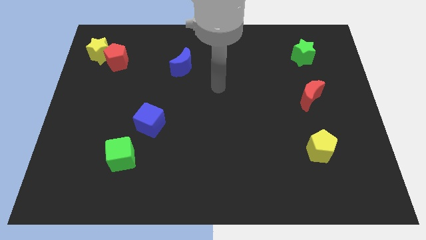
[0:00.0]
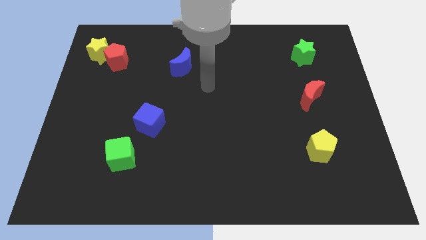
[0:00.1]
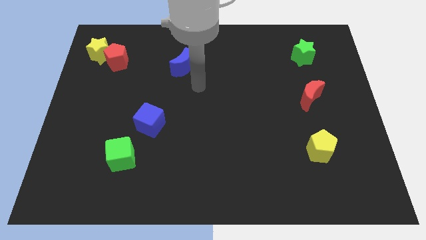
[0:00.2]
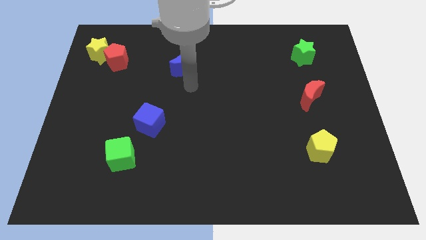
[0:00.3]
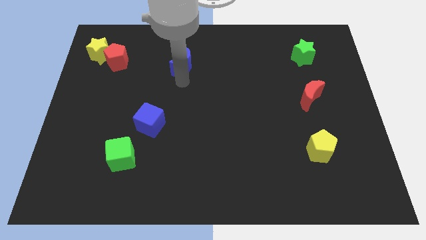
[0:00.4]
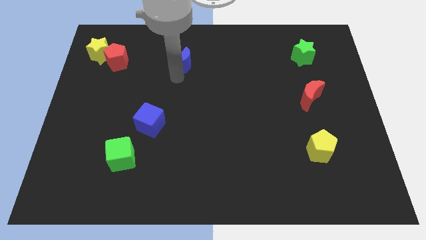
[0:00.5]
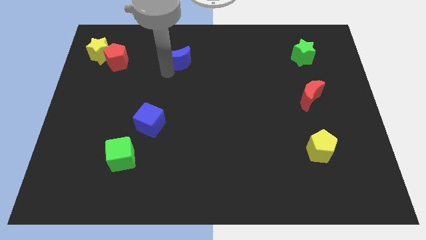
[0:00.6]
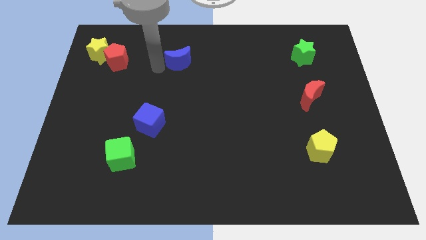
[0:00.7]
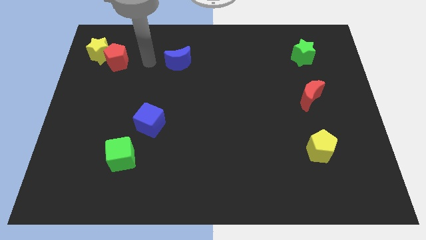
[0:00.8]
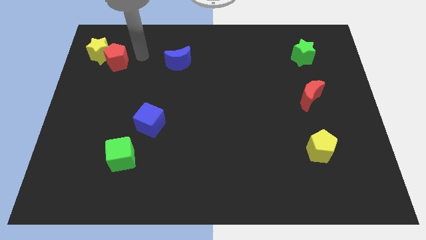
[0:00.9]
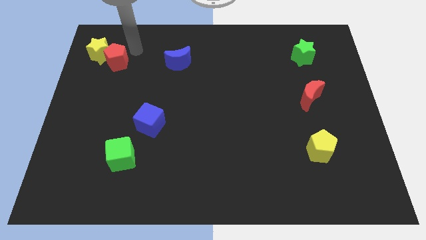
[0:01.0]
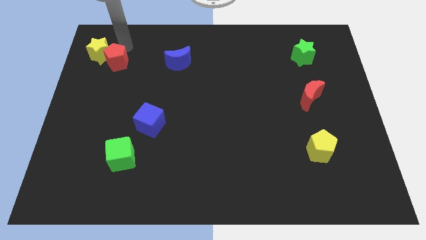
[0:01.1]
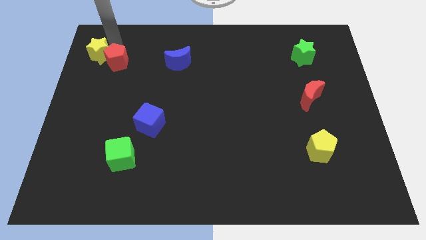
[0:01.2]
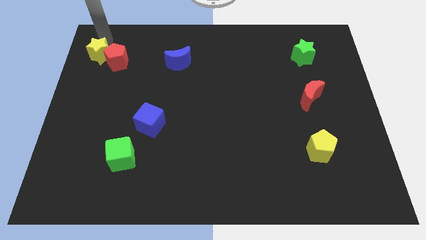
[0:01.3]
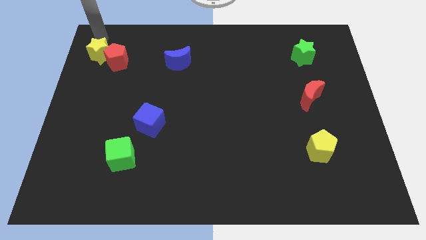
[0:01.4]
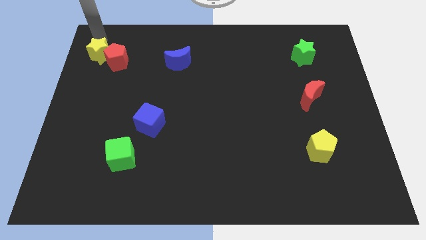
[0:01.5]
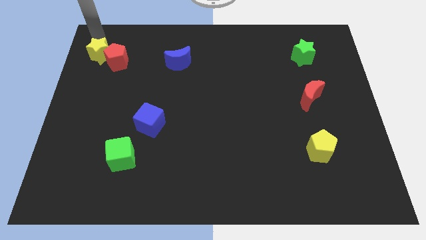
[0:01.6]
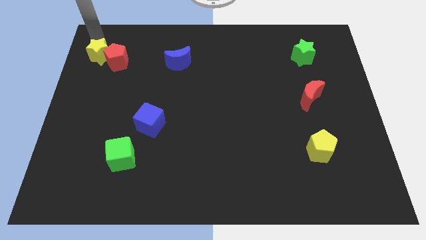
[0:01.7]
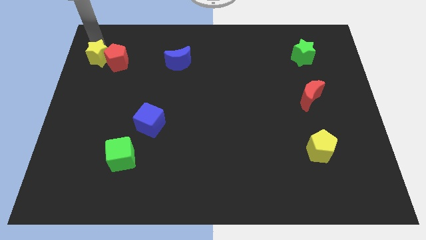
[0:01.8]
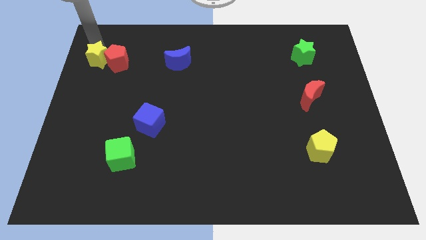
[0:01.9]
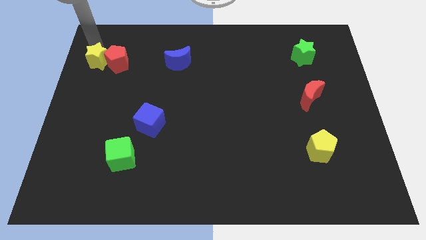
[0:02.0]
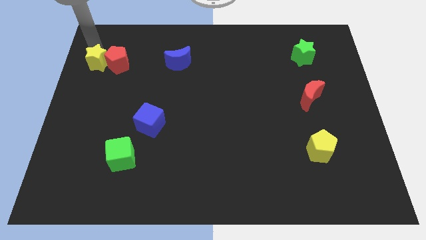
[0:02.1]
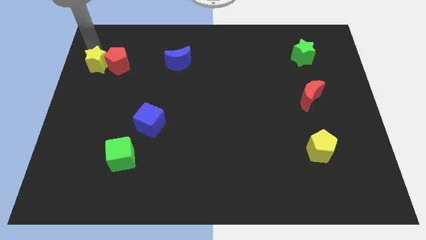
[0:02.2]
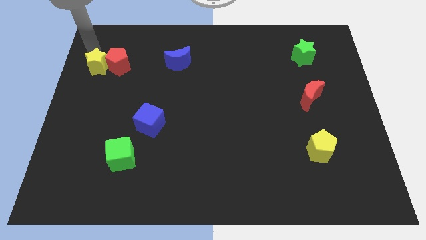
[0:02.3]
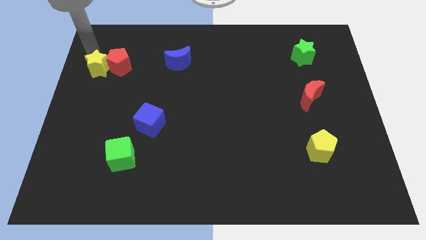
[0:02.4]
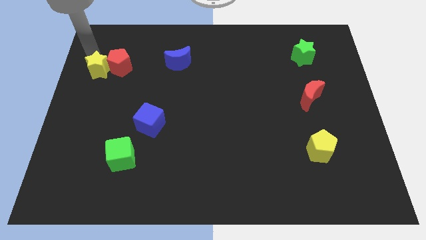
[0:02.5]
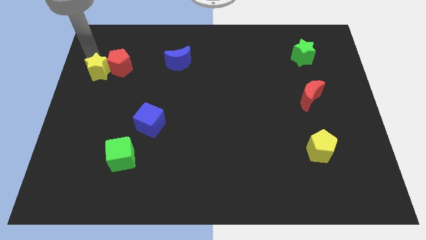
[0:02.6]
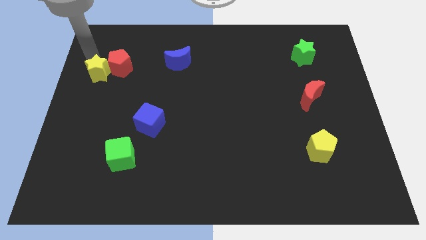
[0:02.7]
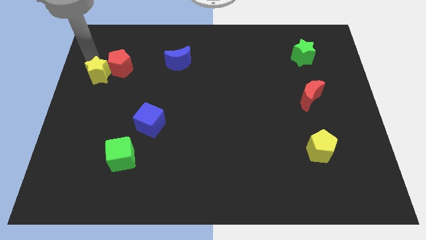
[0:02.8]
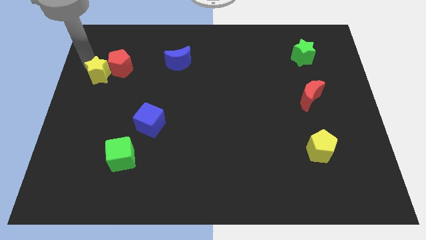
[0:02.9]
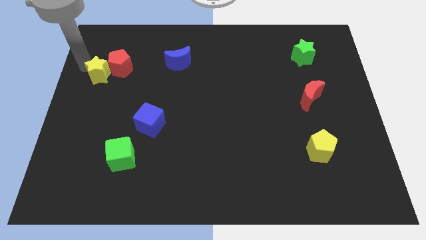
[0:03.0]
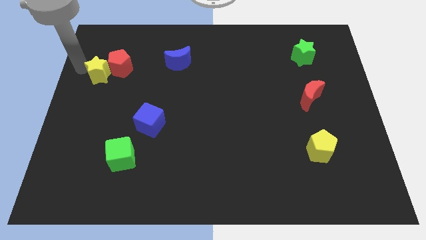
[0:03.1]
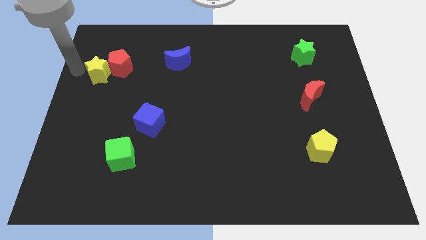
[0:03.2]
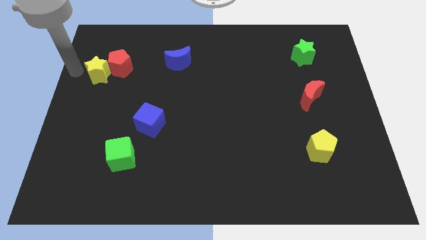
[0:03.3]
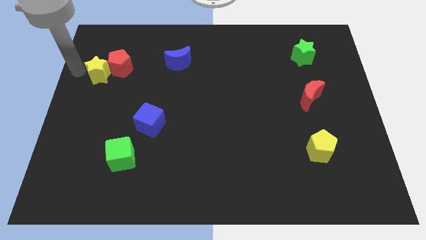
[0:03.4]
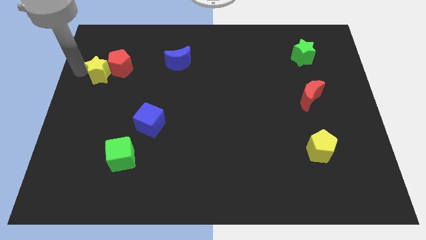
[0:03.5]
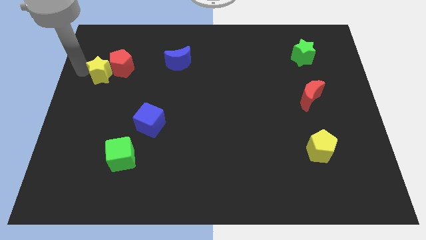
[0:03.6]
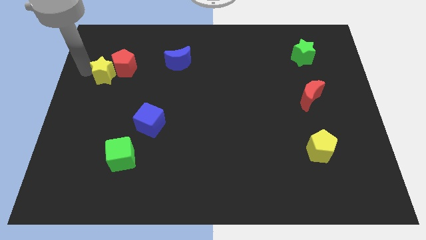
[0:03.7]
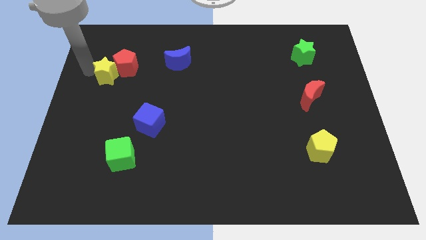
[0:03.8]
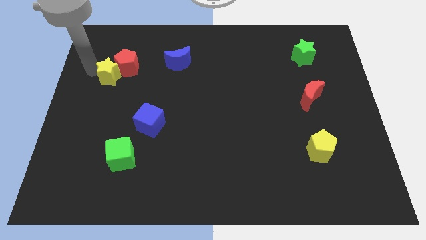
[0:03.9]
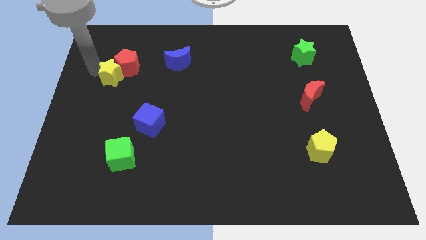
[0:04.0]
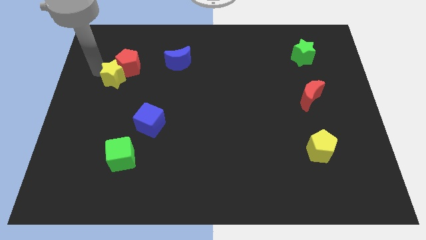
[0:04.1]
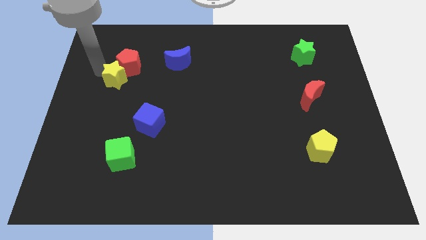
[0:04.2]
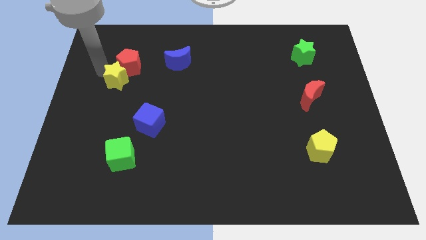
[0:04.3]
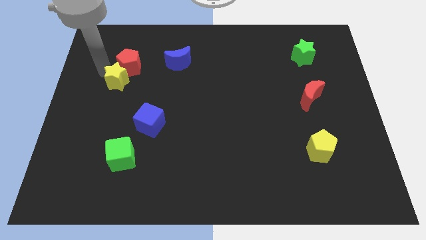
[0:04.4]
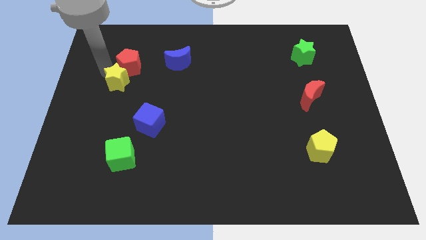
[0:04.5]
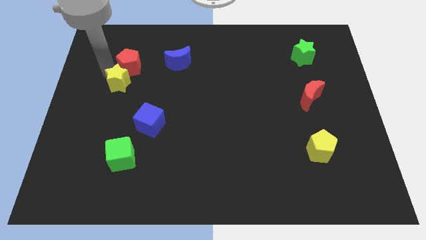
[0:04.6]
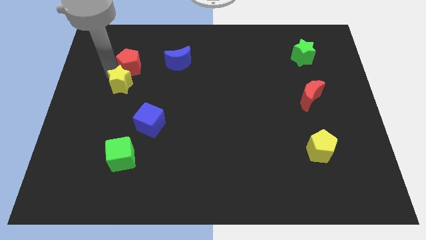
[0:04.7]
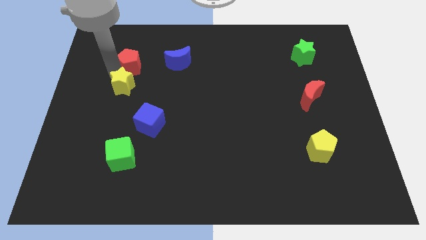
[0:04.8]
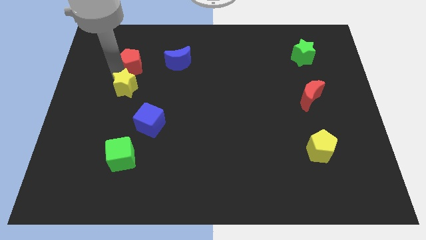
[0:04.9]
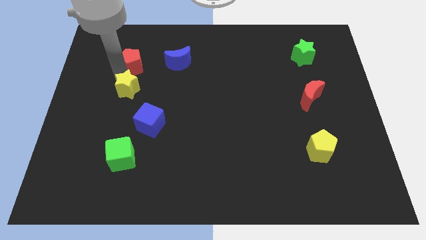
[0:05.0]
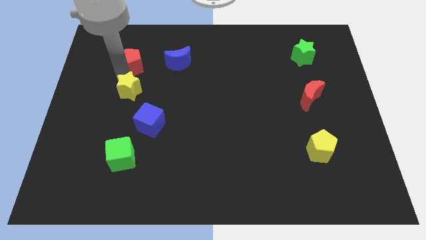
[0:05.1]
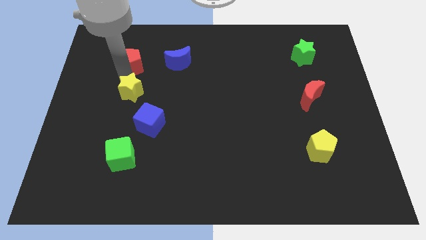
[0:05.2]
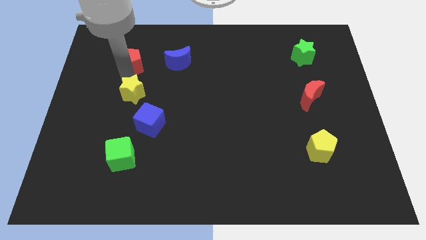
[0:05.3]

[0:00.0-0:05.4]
slide the yellow star to the top side of the blue cube

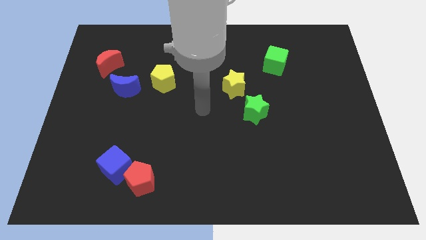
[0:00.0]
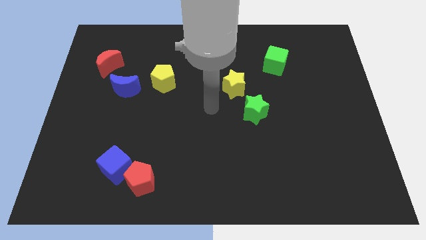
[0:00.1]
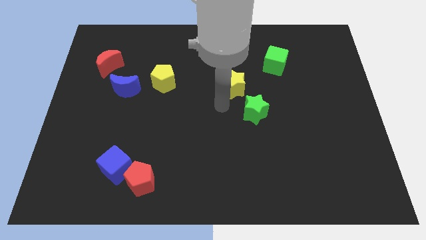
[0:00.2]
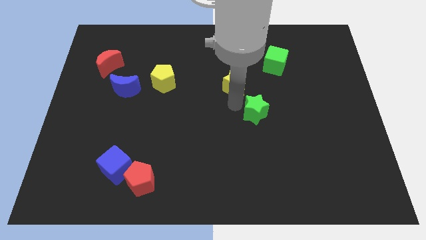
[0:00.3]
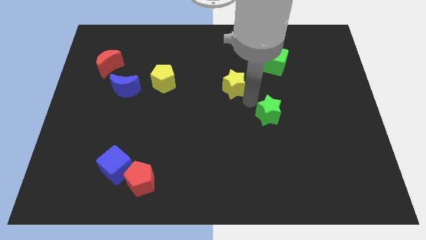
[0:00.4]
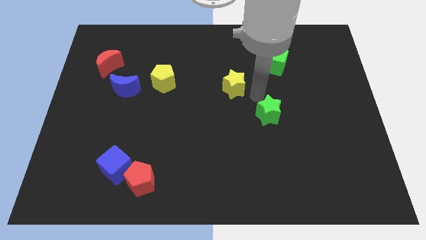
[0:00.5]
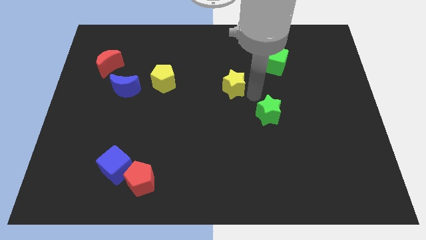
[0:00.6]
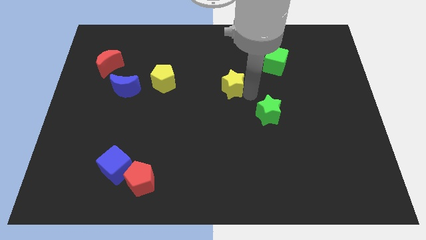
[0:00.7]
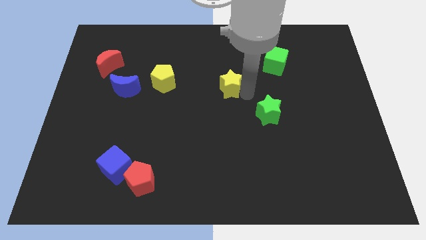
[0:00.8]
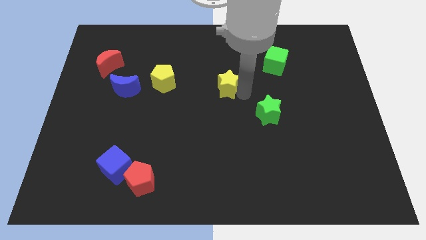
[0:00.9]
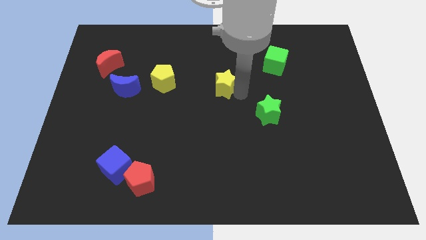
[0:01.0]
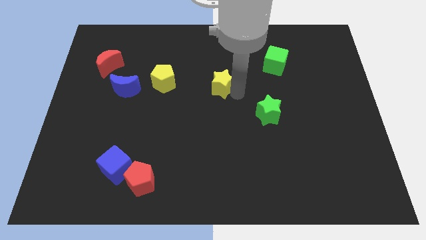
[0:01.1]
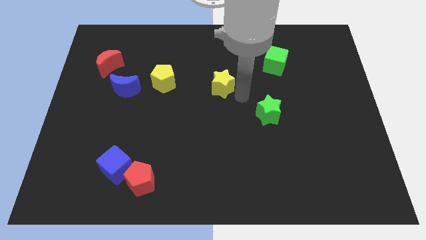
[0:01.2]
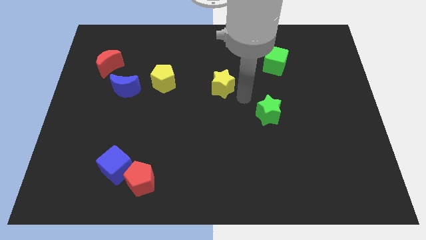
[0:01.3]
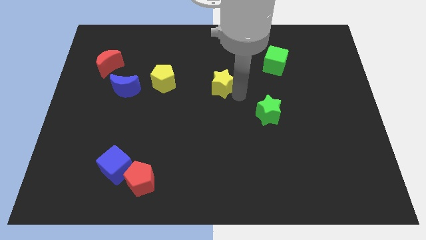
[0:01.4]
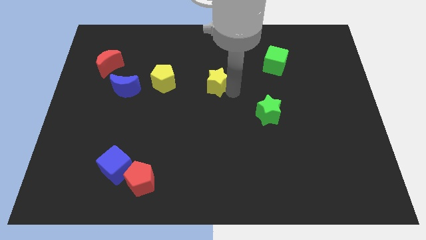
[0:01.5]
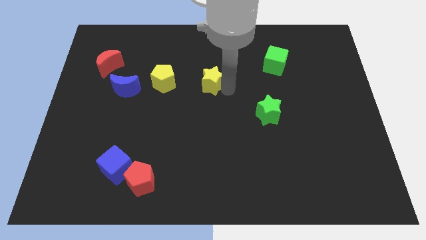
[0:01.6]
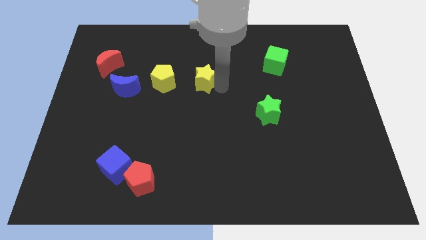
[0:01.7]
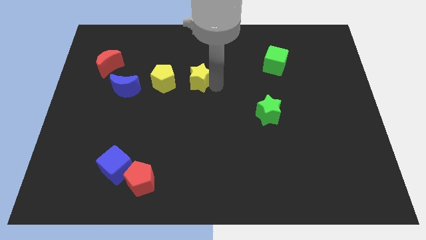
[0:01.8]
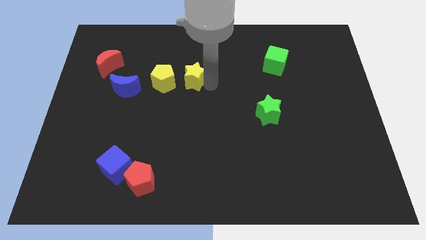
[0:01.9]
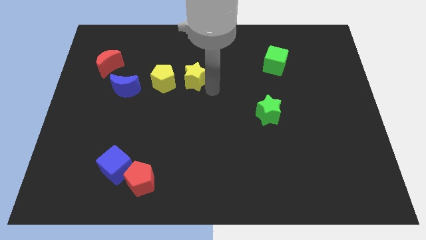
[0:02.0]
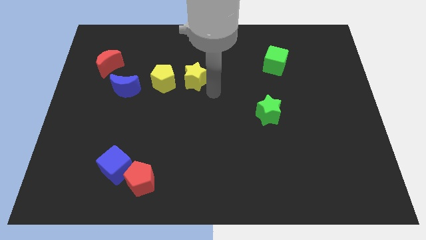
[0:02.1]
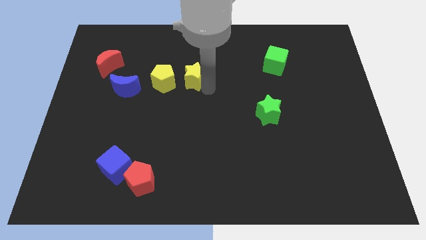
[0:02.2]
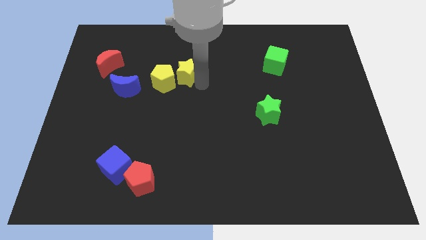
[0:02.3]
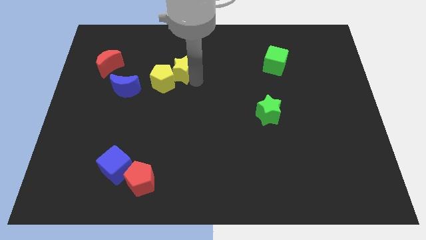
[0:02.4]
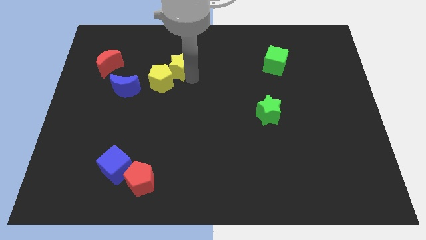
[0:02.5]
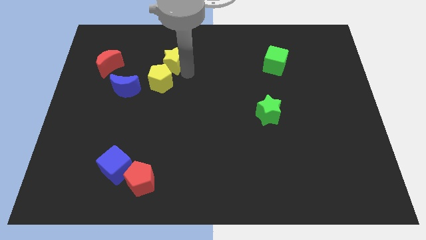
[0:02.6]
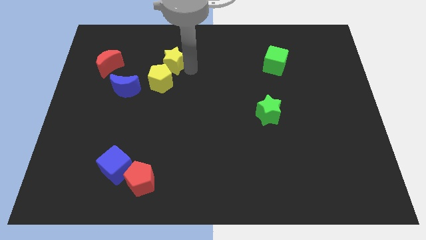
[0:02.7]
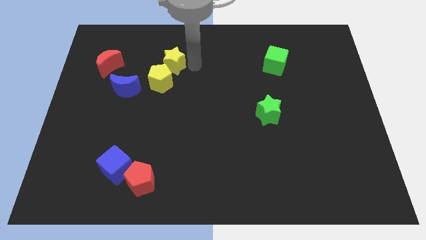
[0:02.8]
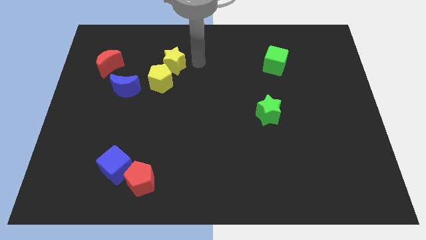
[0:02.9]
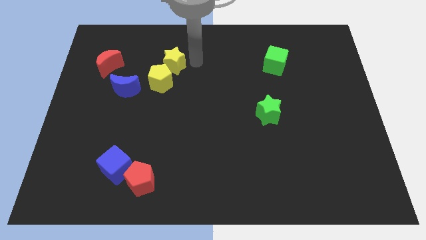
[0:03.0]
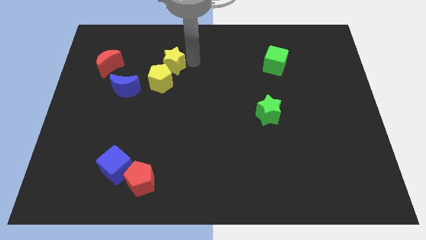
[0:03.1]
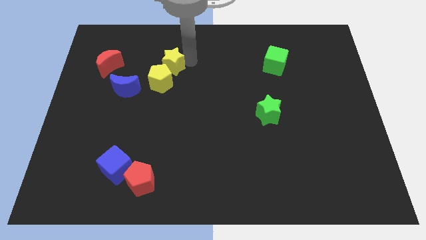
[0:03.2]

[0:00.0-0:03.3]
push the yellow star to the right of the red moon
